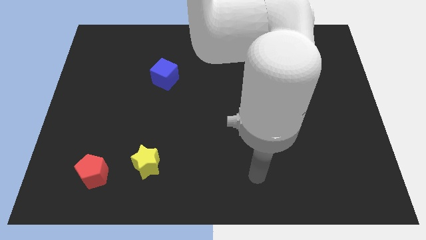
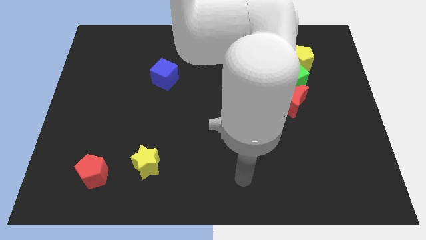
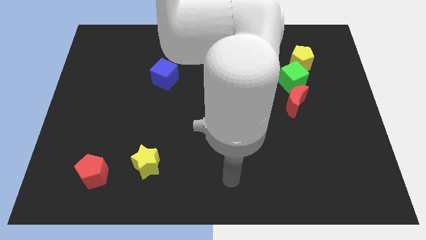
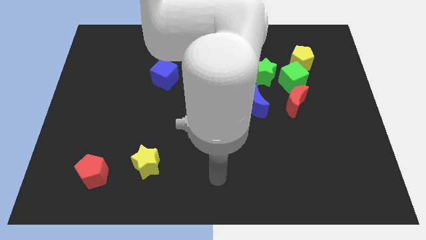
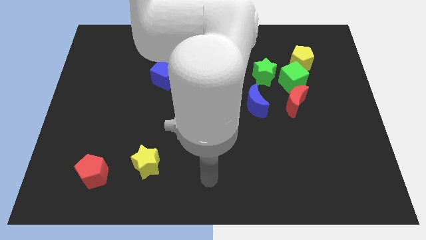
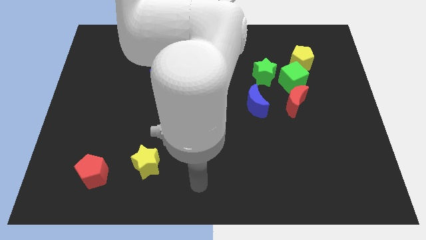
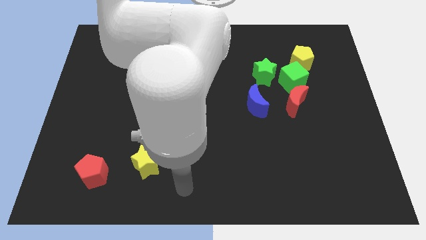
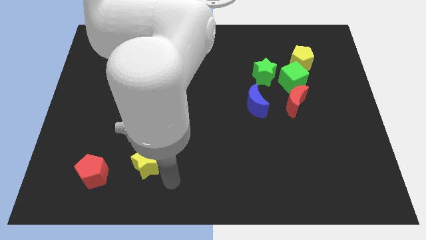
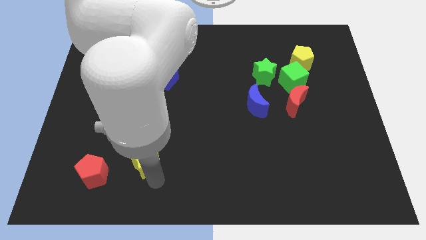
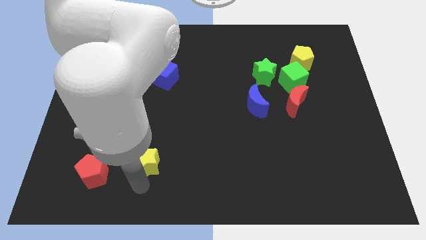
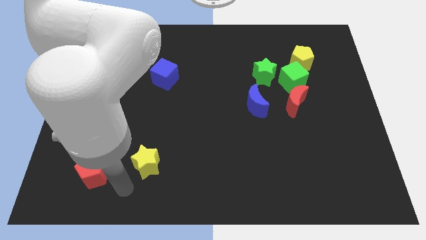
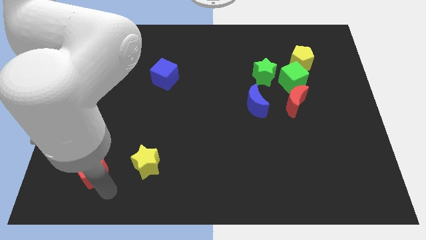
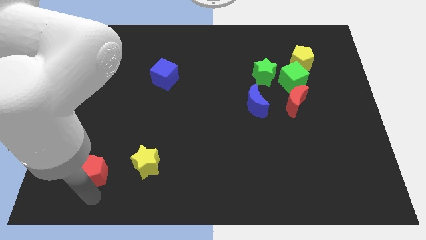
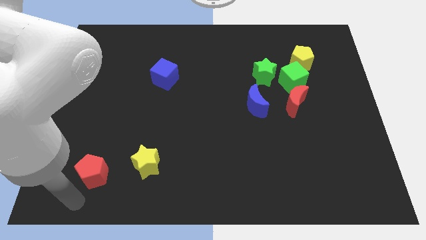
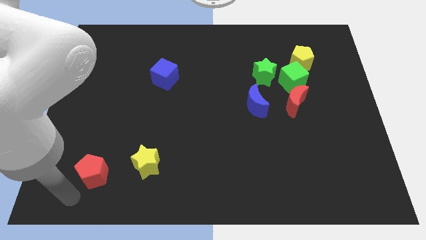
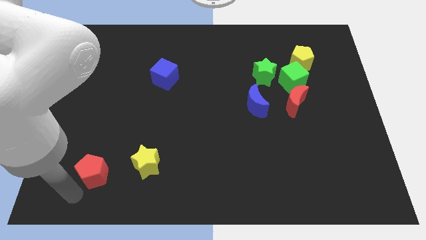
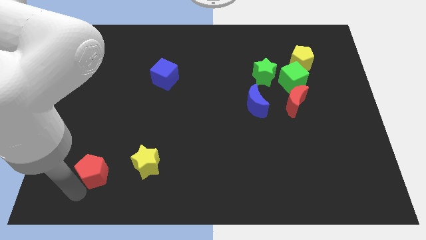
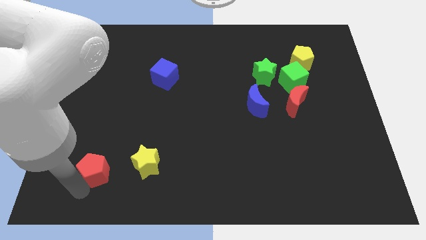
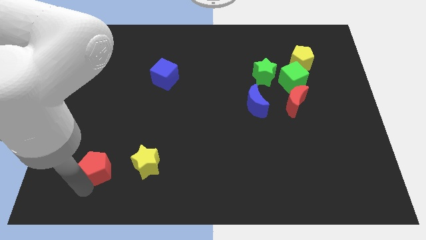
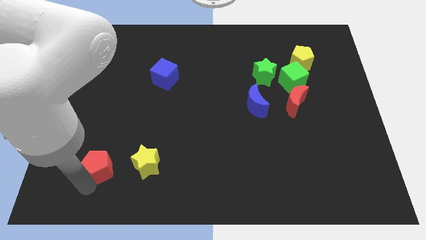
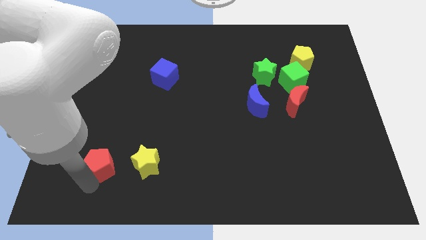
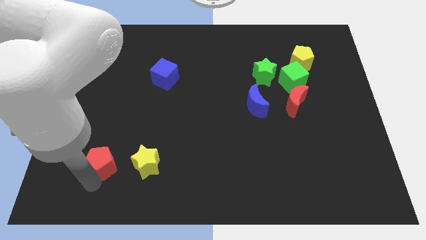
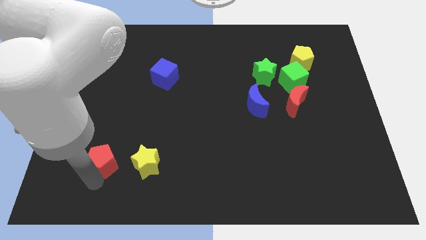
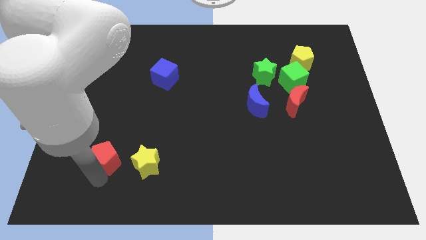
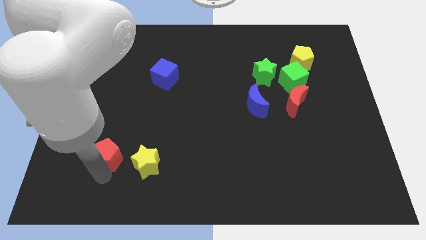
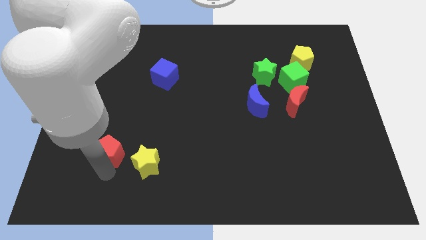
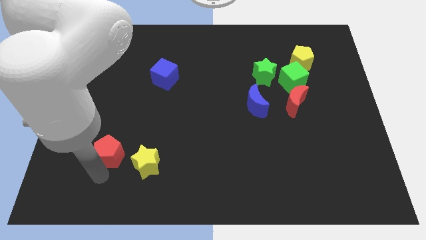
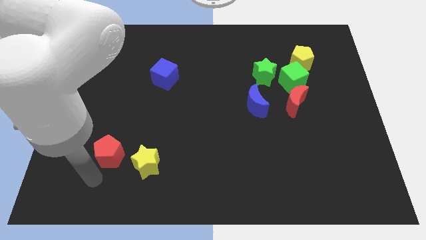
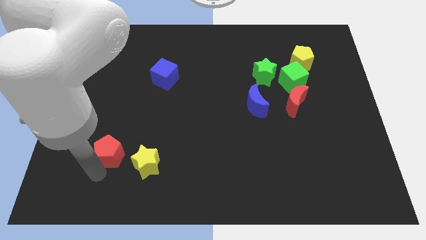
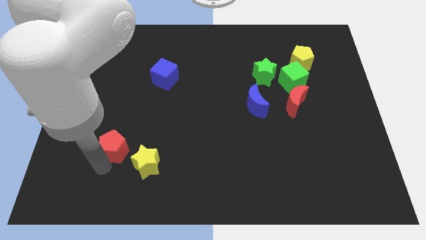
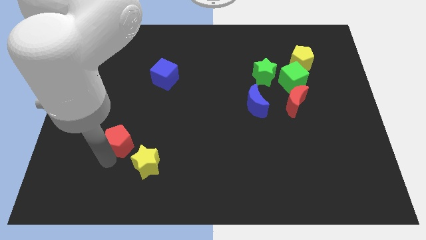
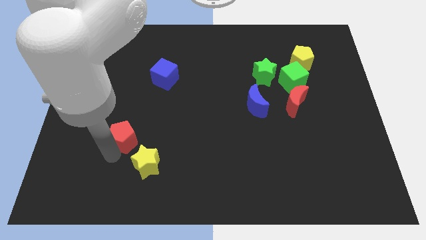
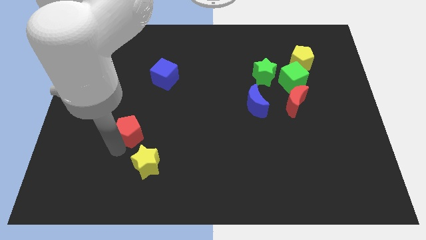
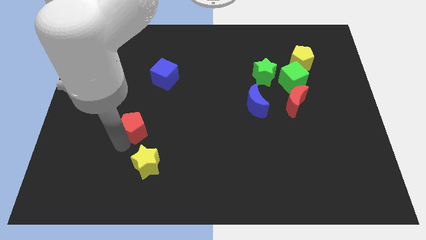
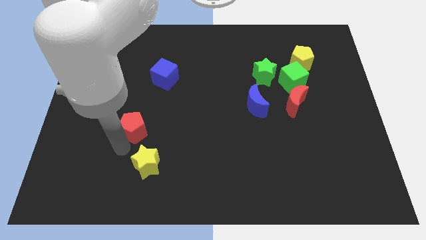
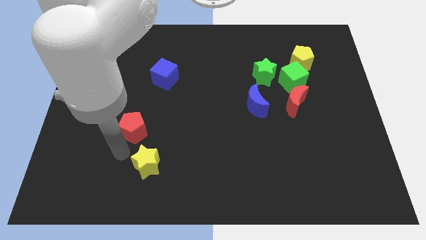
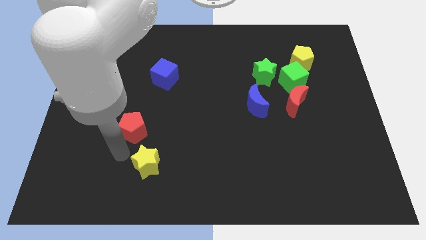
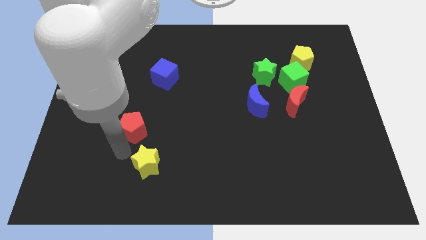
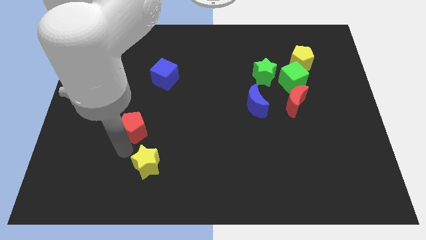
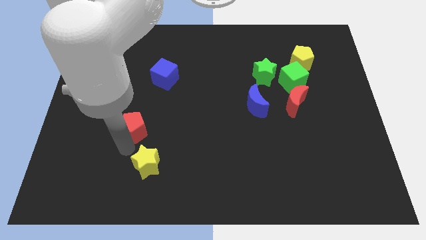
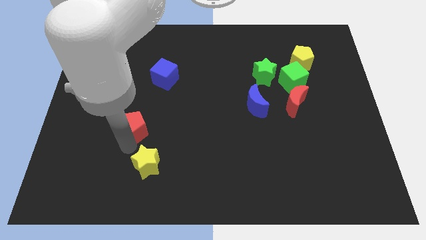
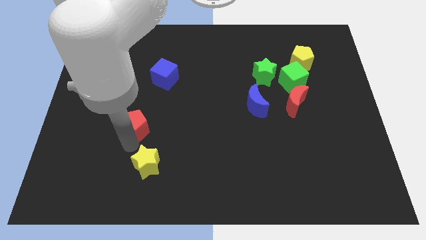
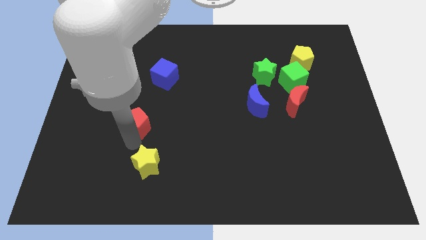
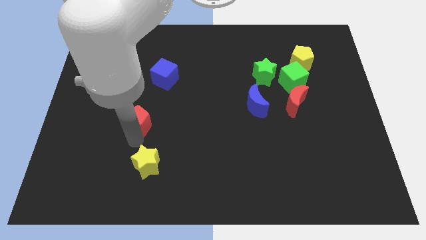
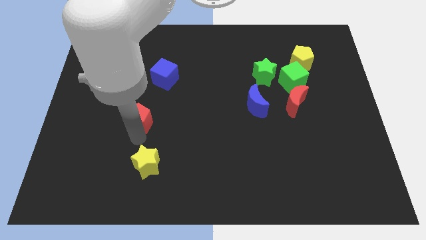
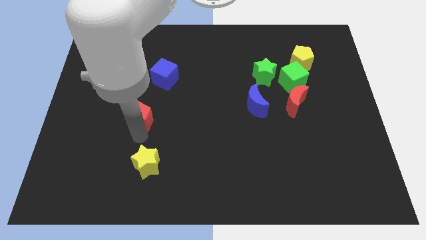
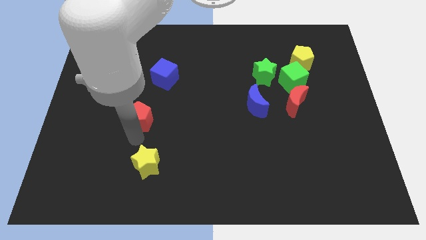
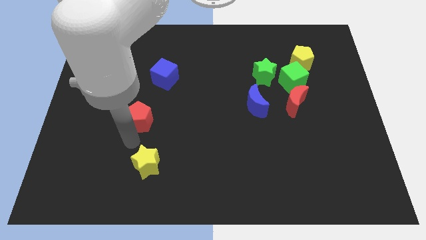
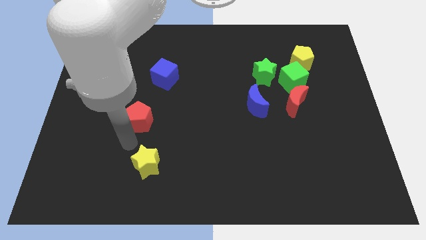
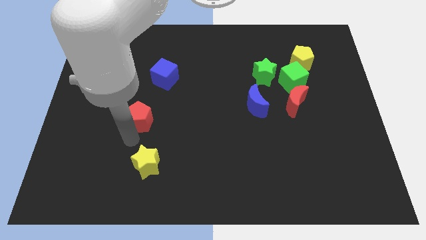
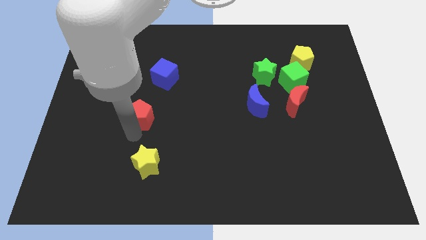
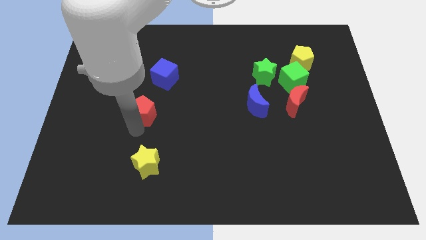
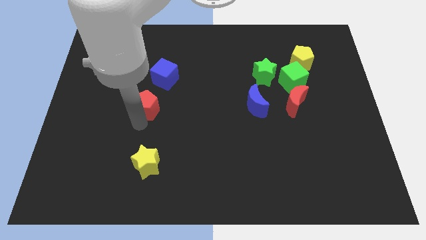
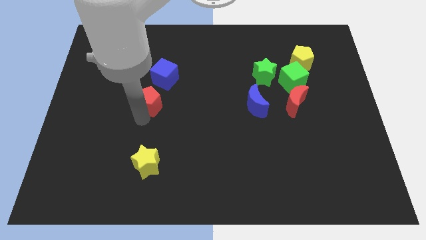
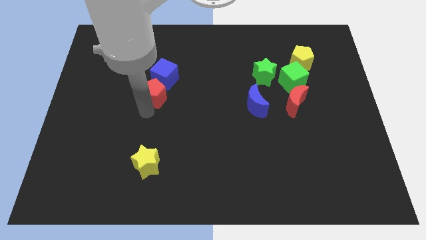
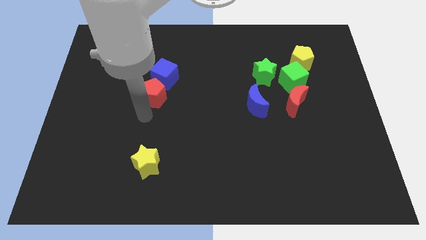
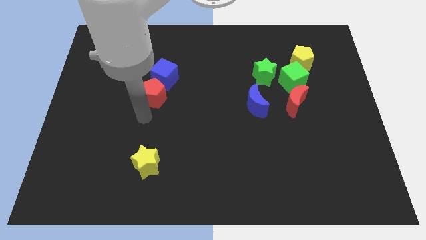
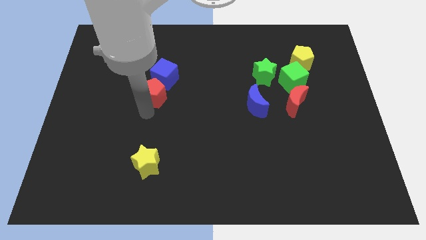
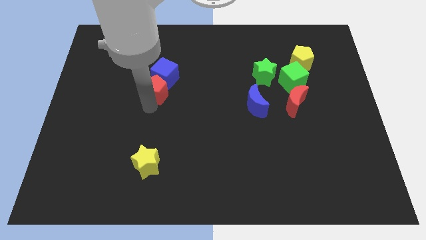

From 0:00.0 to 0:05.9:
put the red pentagon towards the blue cube

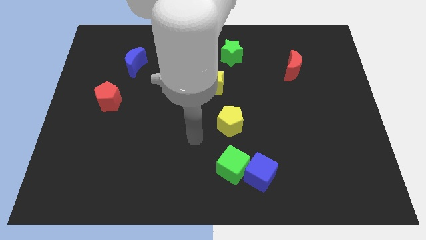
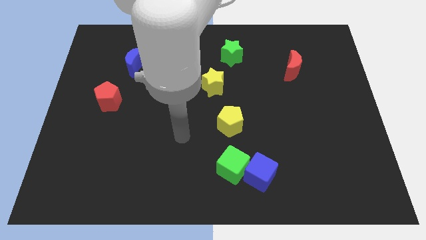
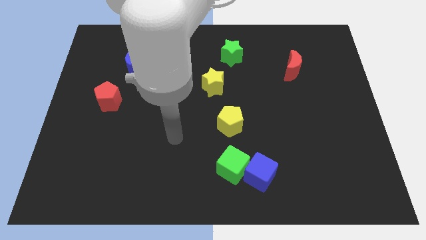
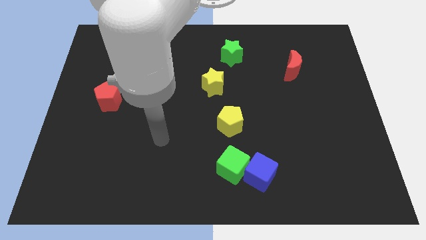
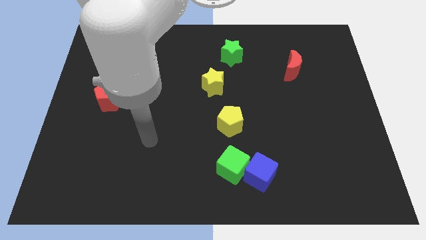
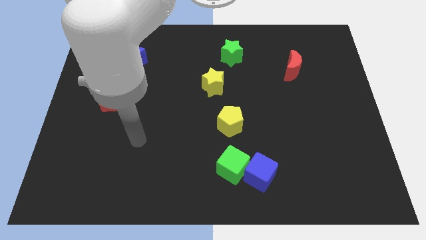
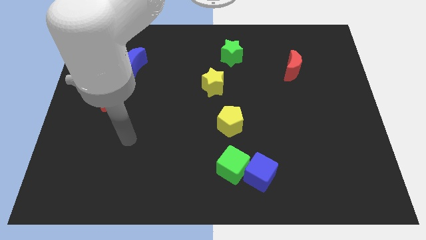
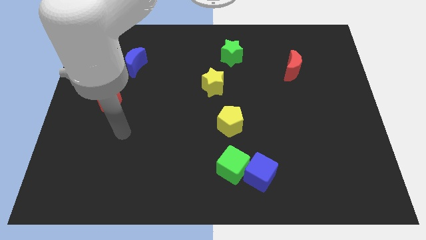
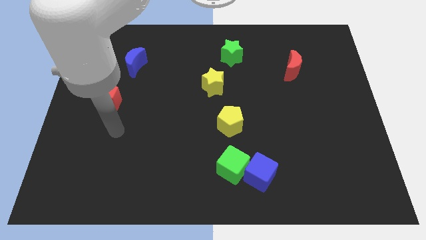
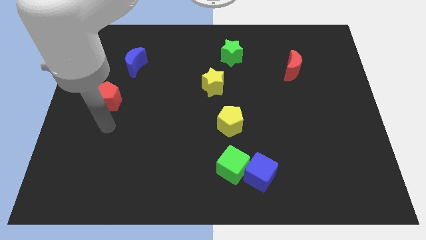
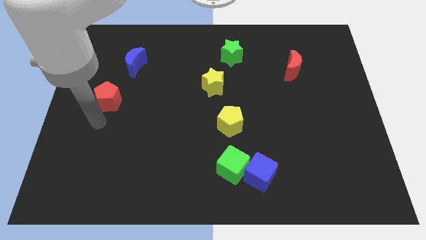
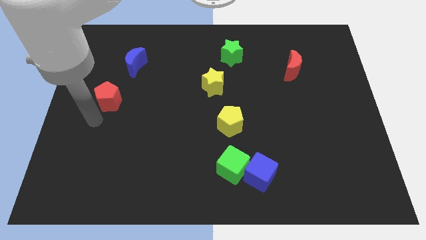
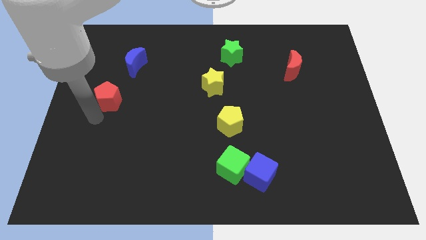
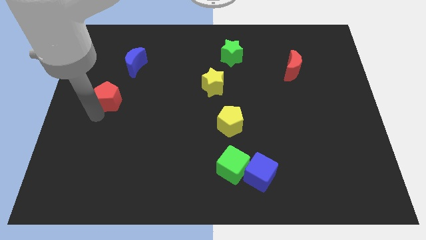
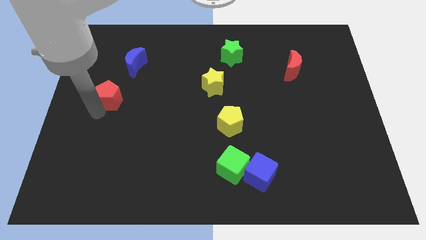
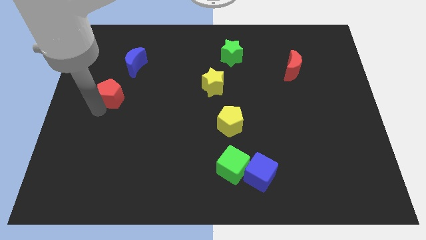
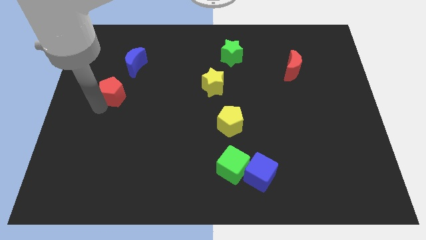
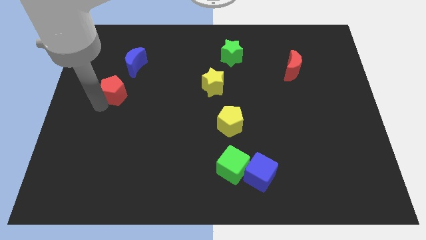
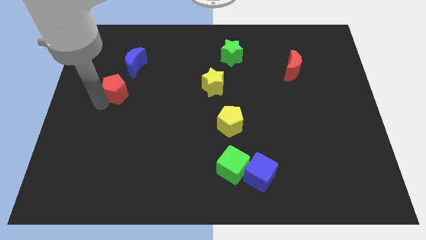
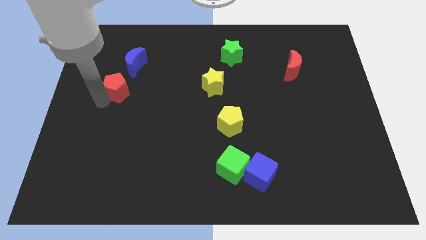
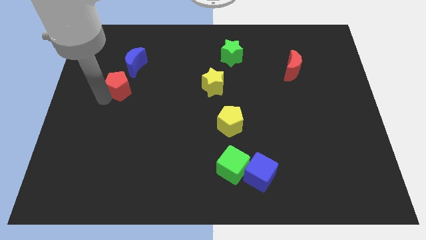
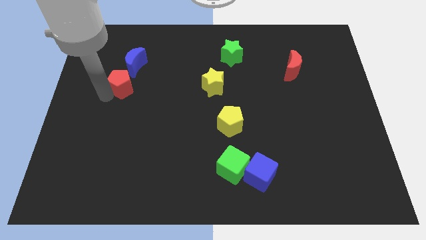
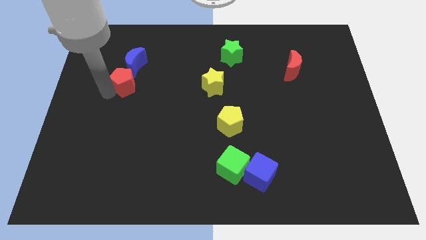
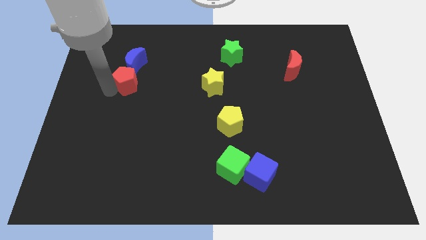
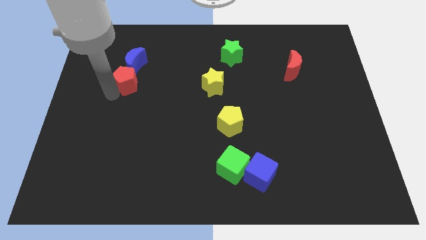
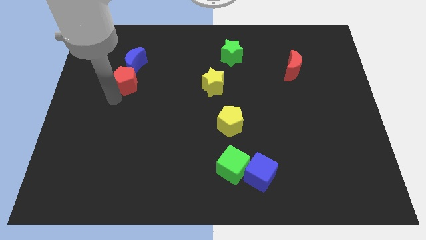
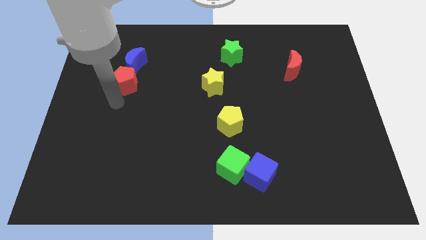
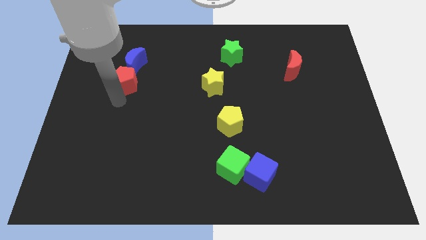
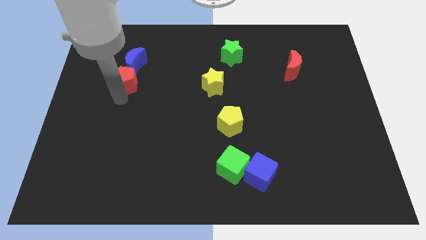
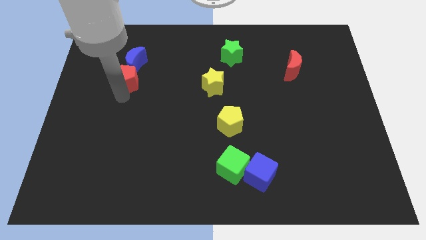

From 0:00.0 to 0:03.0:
put the red pentagon close to the blue moon
